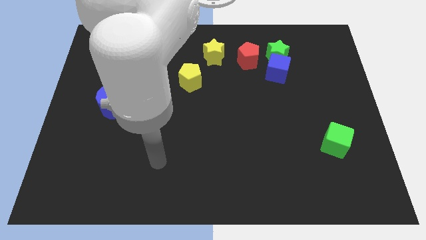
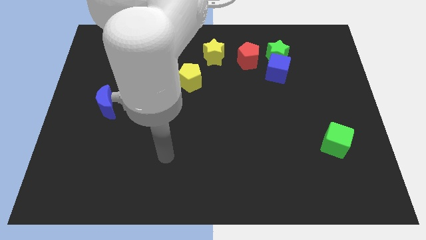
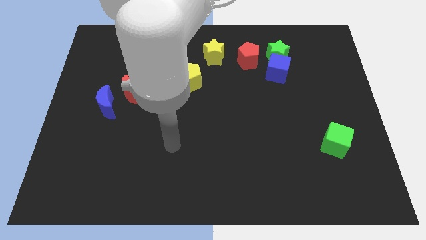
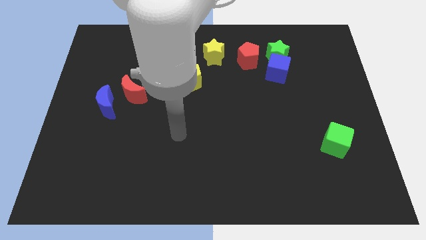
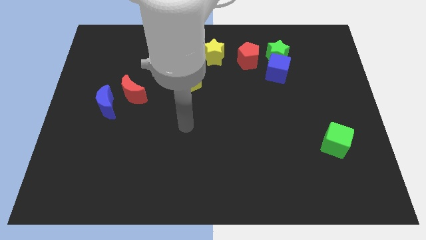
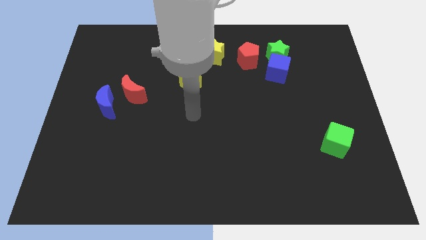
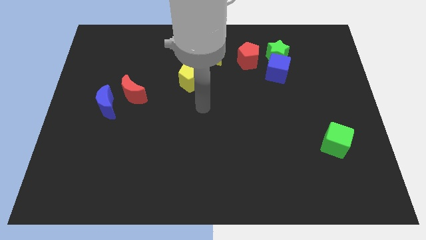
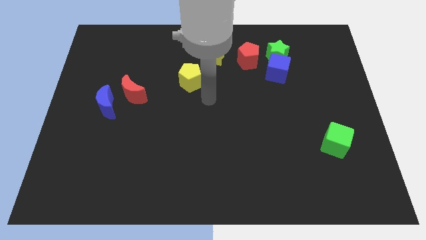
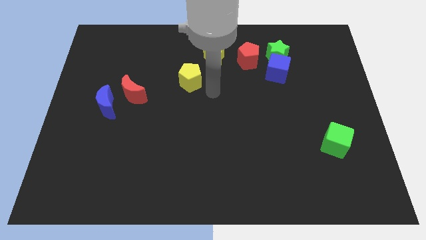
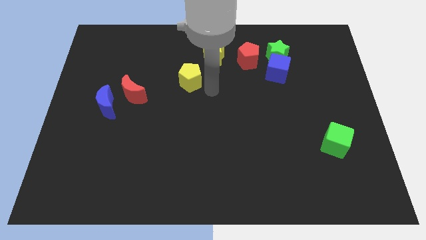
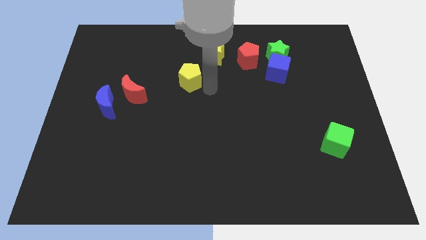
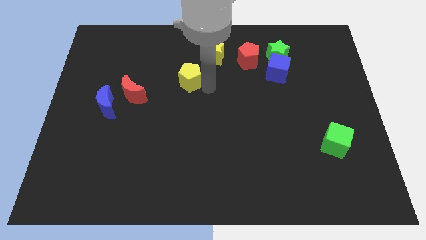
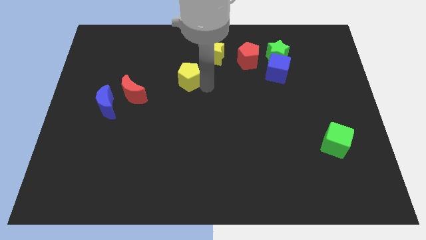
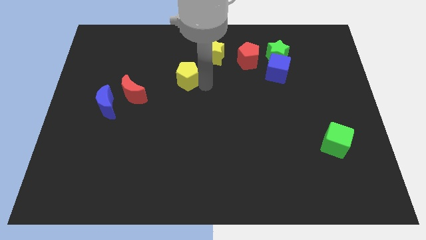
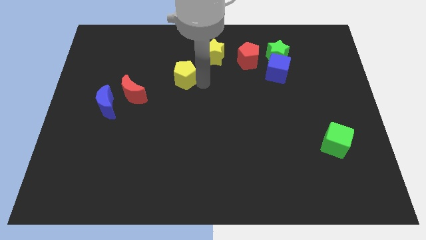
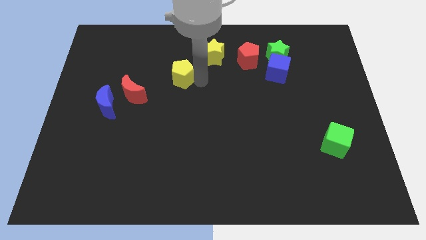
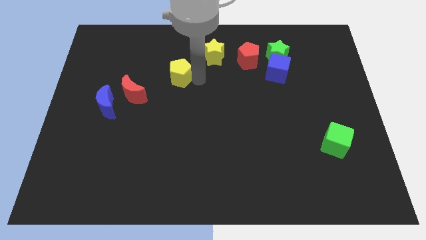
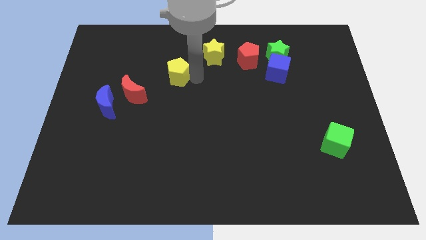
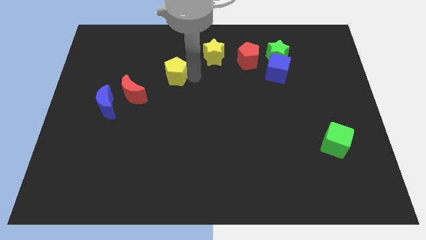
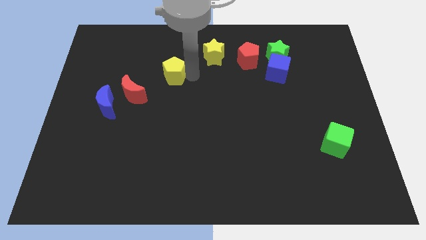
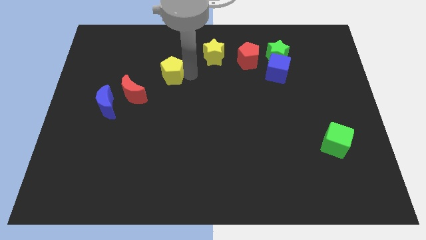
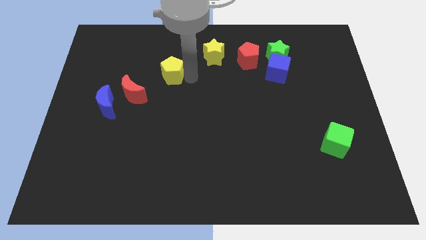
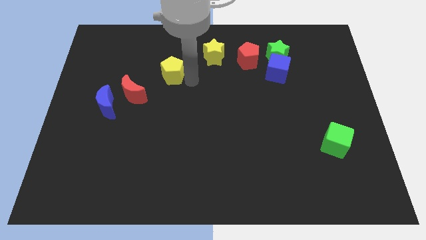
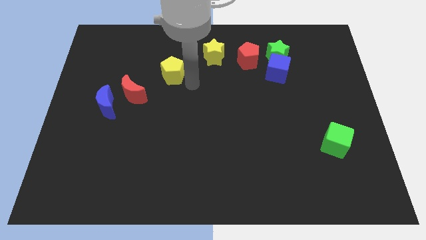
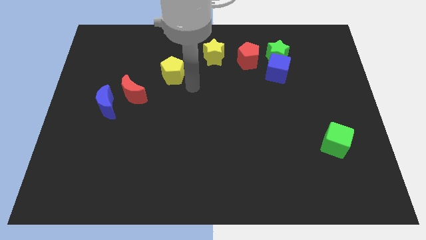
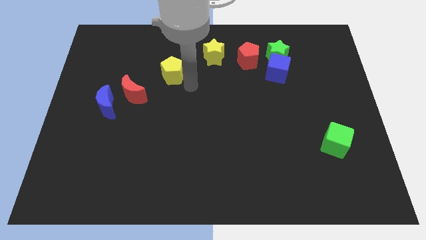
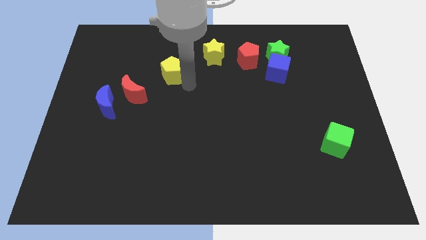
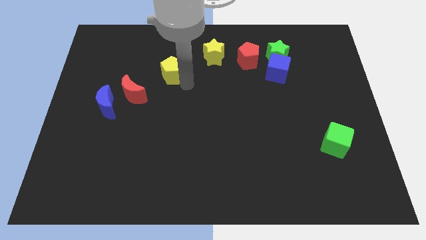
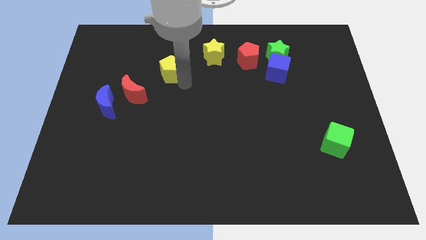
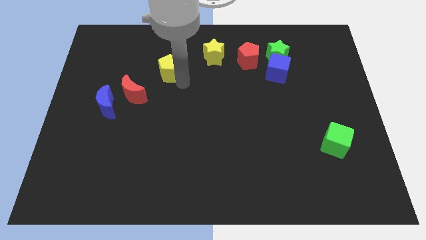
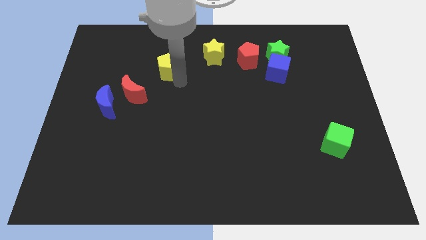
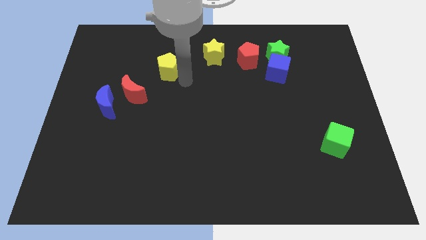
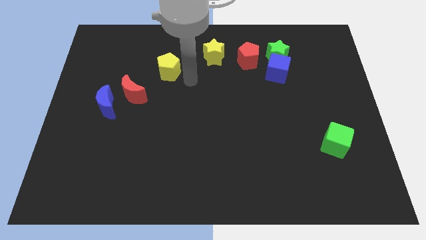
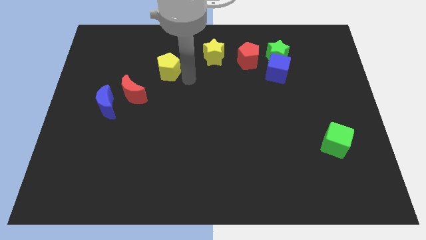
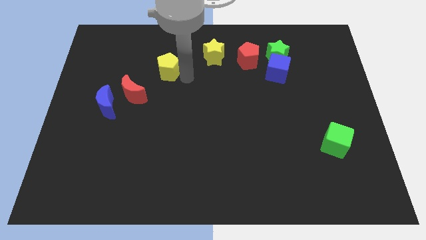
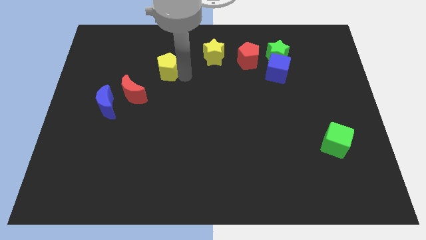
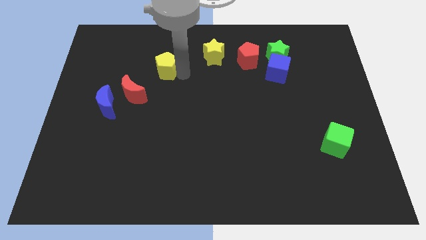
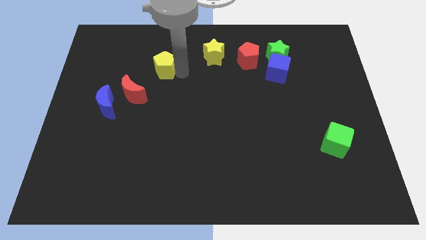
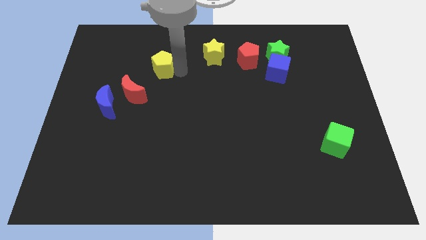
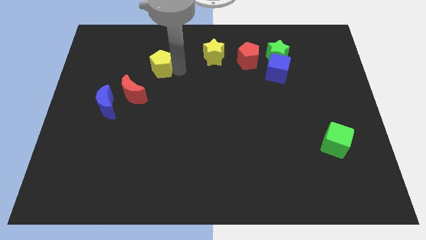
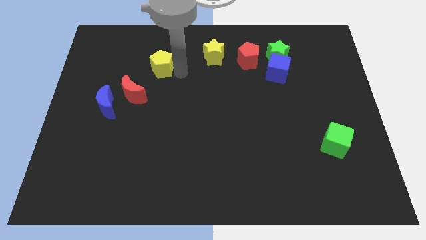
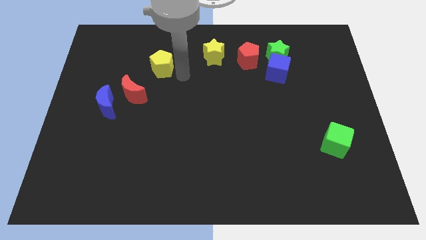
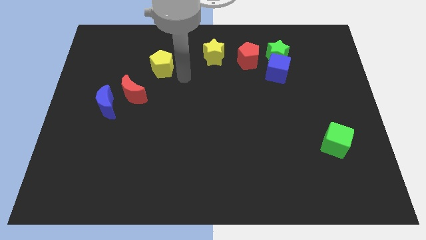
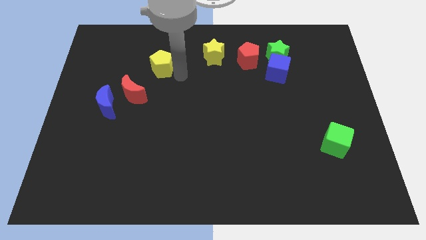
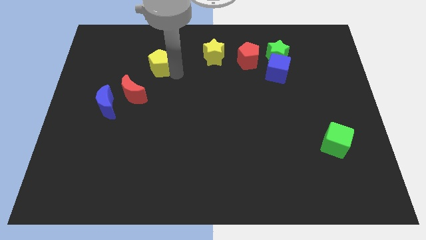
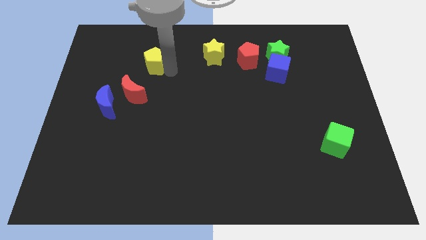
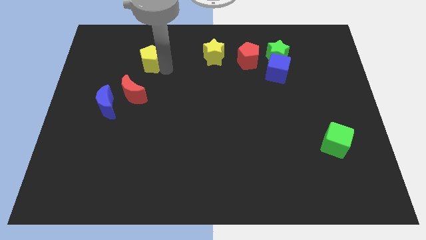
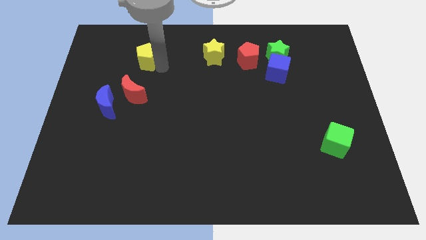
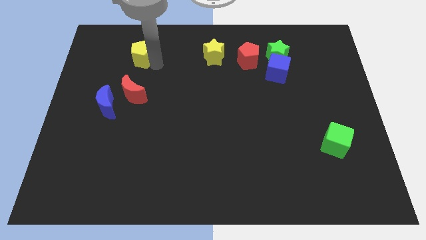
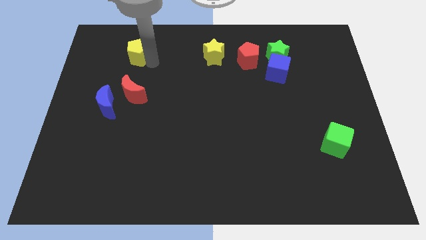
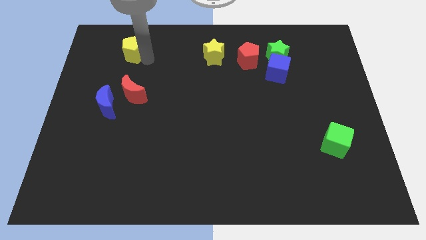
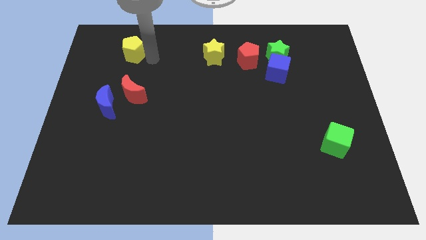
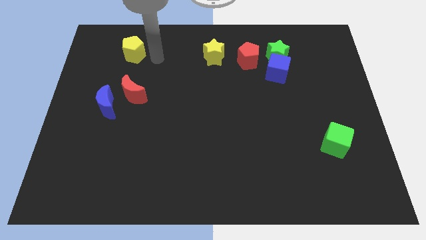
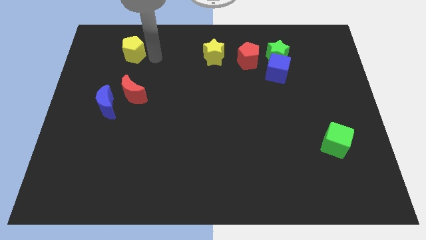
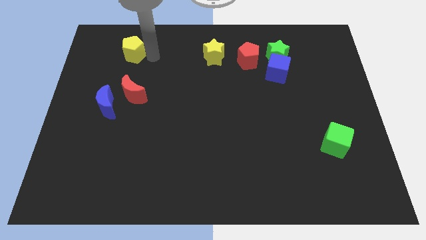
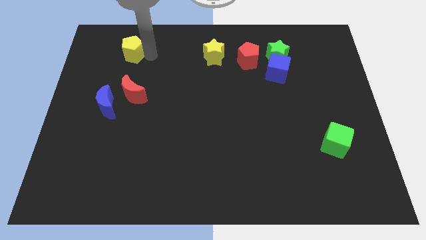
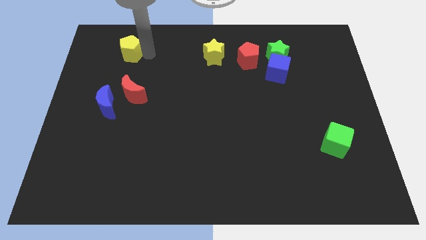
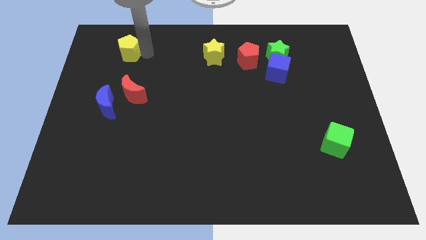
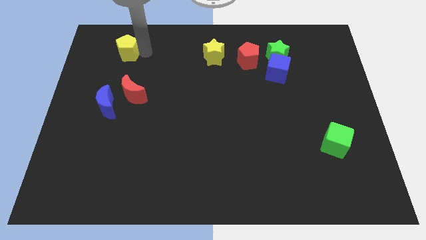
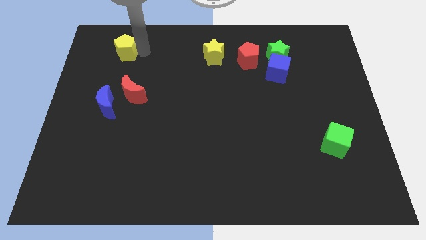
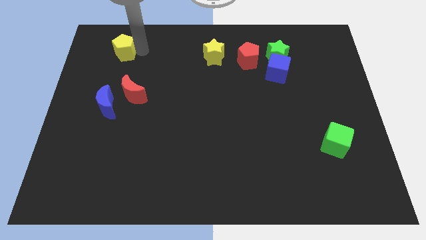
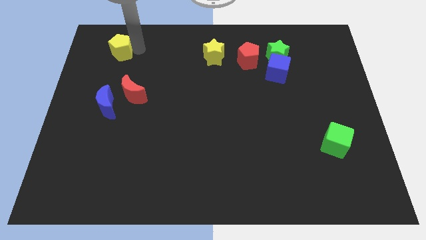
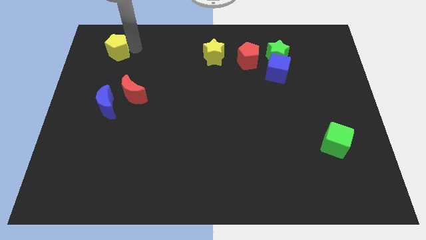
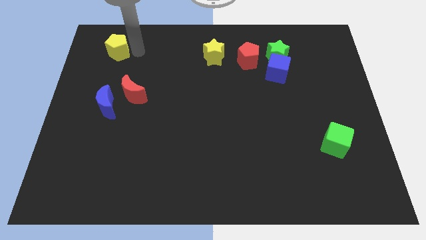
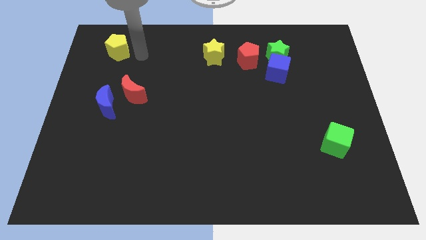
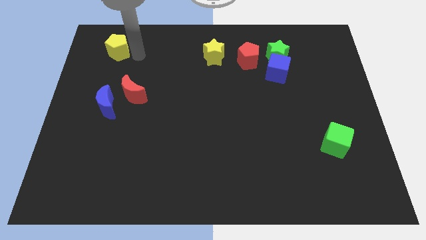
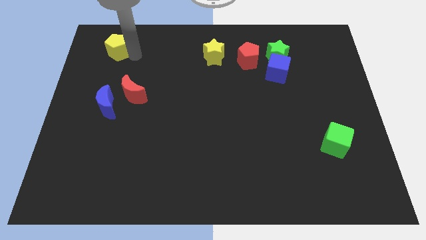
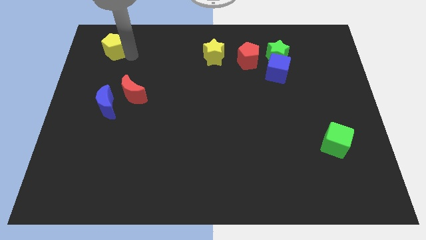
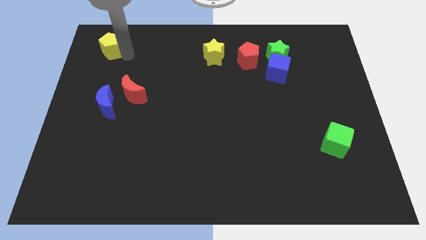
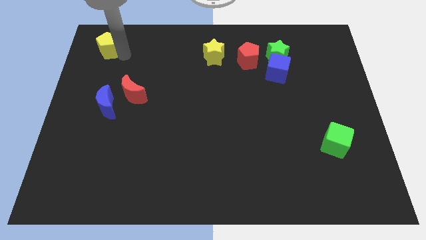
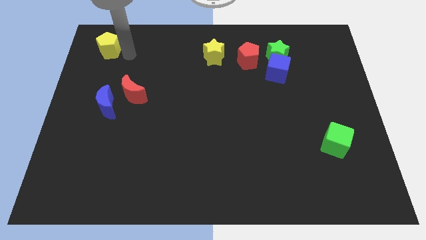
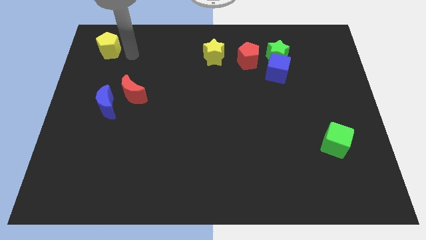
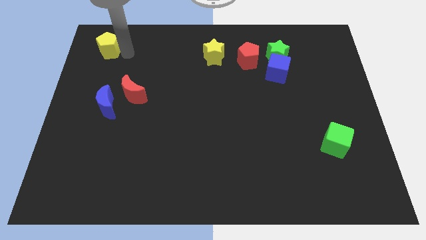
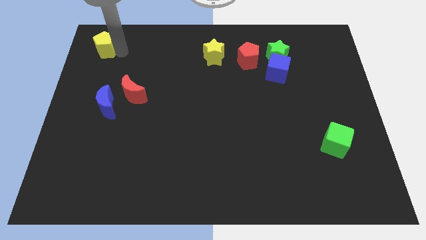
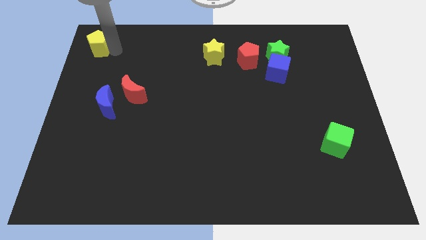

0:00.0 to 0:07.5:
slide the yellow pentagon to the top left
